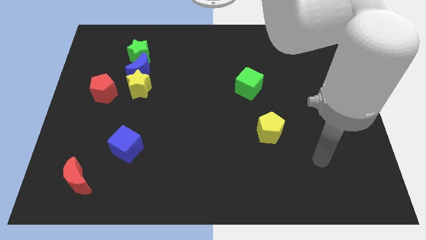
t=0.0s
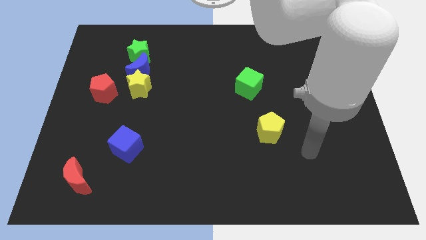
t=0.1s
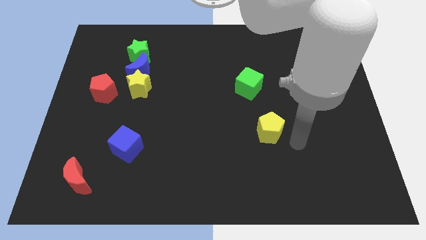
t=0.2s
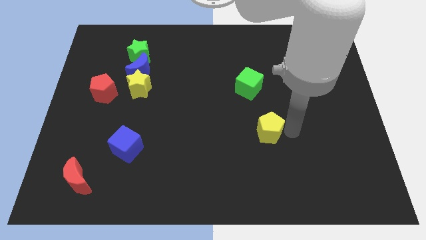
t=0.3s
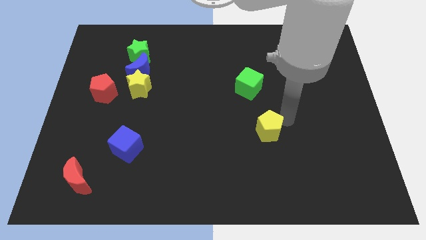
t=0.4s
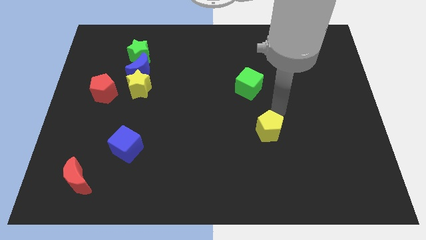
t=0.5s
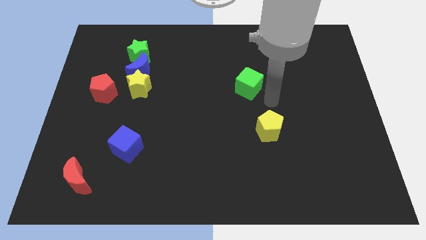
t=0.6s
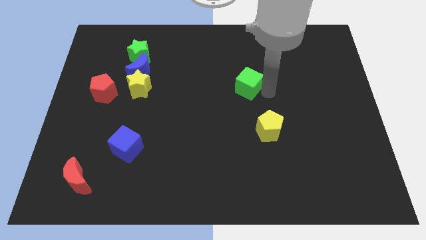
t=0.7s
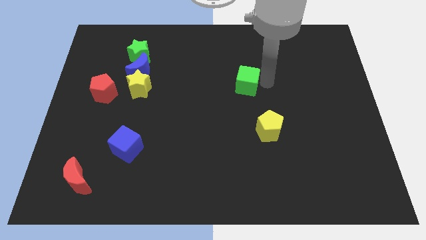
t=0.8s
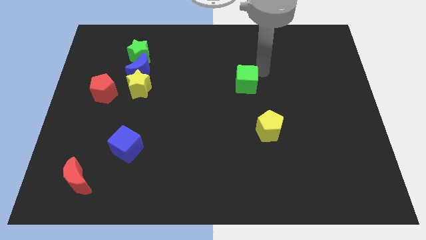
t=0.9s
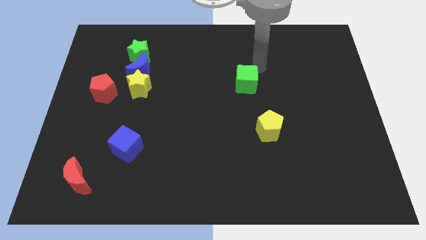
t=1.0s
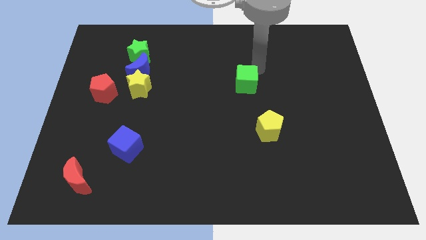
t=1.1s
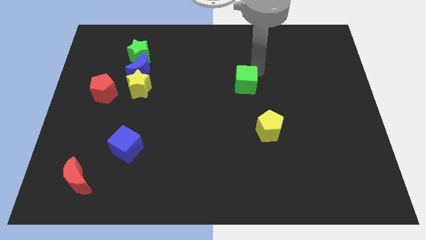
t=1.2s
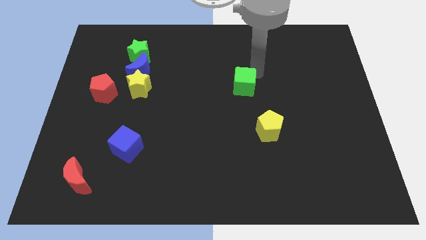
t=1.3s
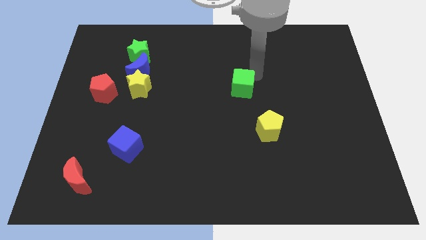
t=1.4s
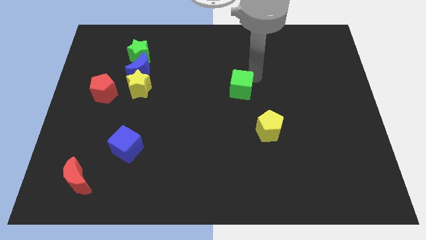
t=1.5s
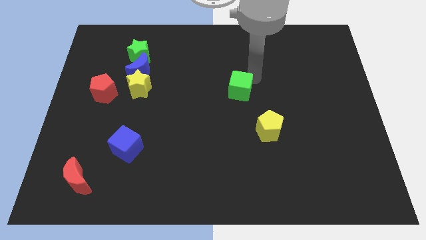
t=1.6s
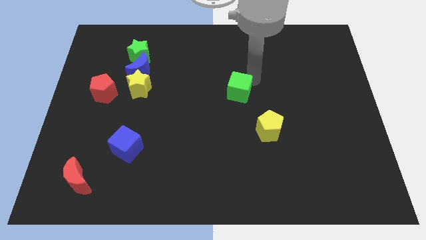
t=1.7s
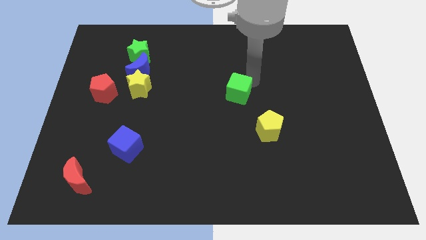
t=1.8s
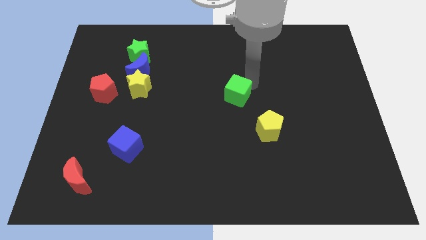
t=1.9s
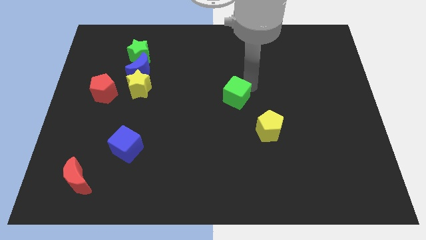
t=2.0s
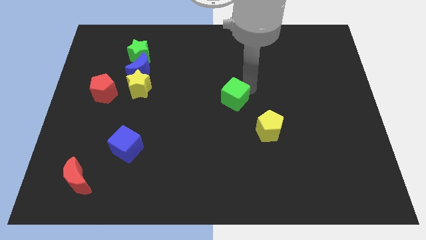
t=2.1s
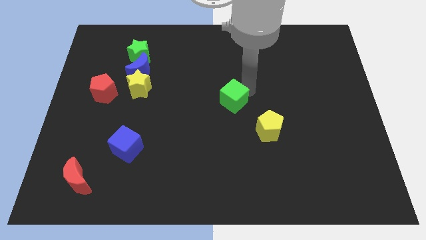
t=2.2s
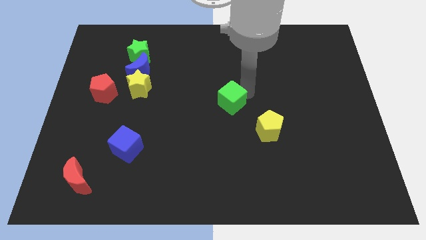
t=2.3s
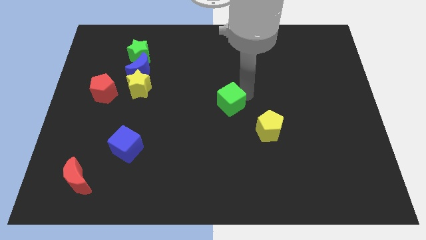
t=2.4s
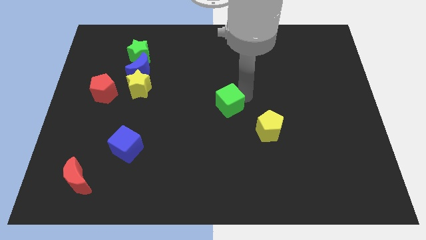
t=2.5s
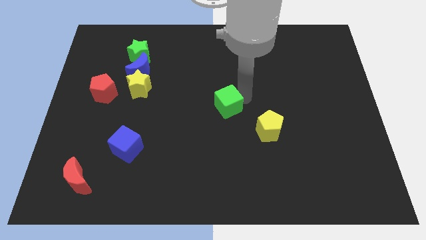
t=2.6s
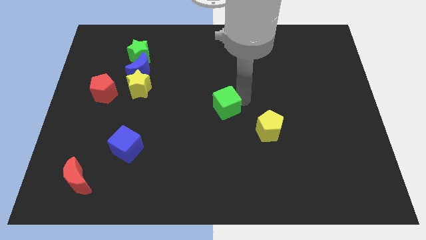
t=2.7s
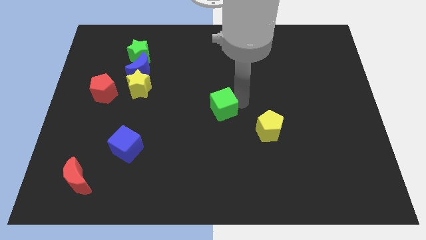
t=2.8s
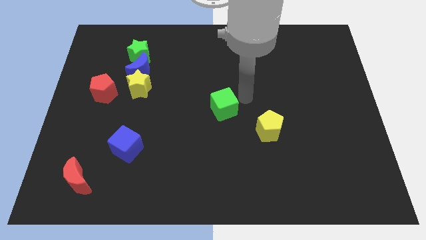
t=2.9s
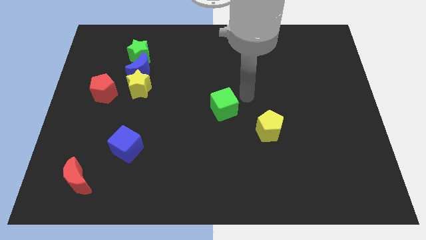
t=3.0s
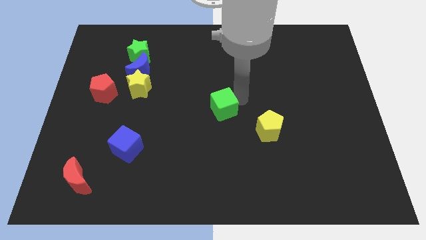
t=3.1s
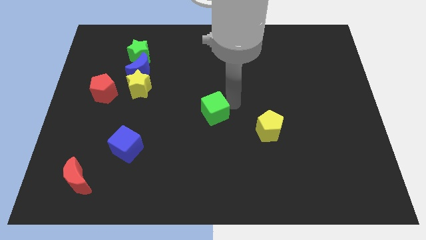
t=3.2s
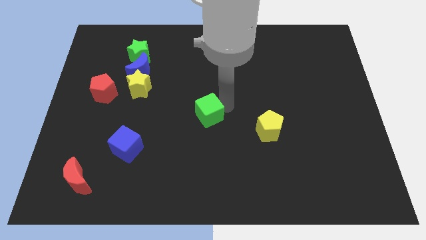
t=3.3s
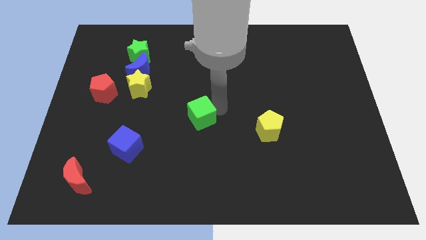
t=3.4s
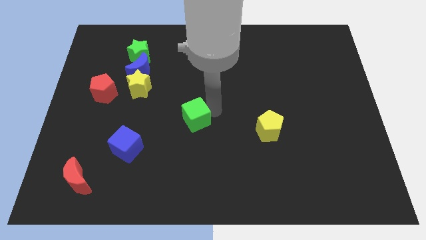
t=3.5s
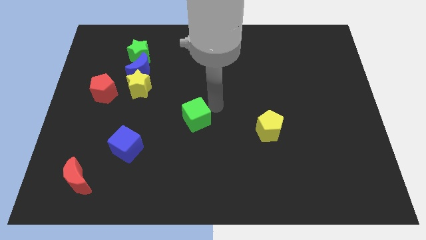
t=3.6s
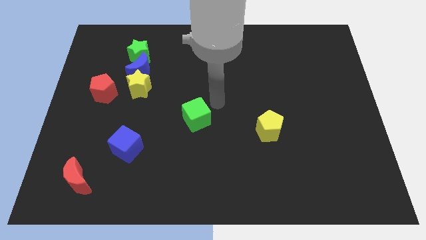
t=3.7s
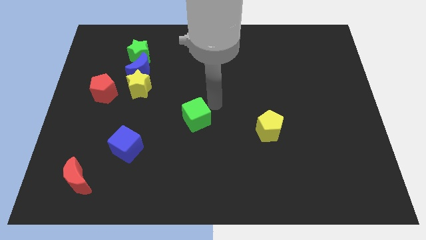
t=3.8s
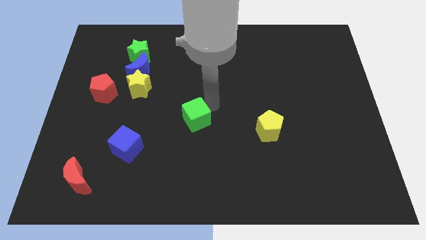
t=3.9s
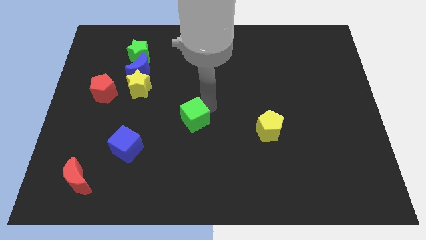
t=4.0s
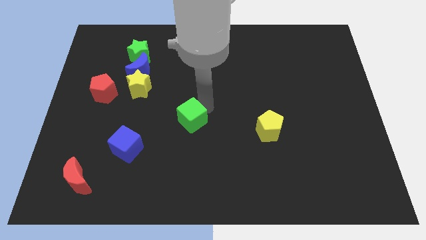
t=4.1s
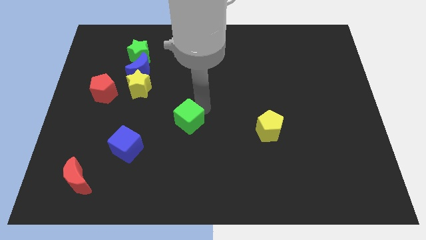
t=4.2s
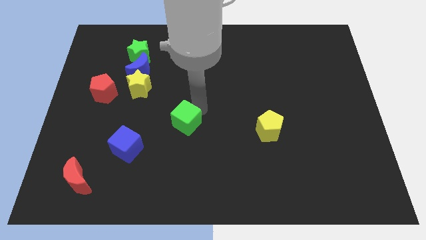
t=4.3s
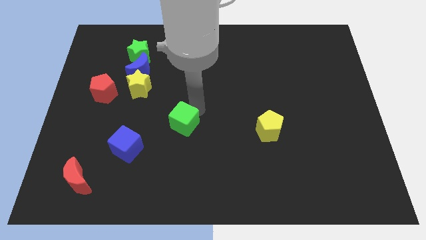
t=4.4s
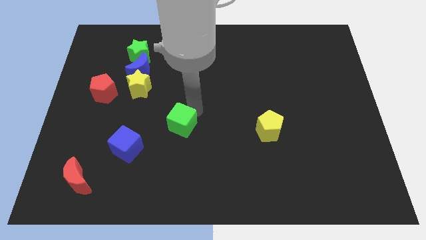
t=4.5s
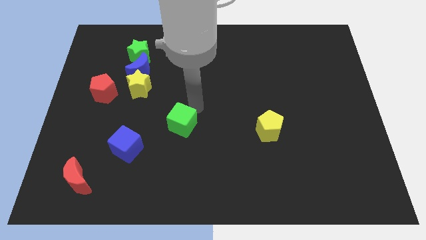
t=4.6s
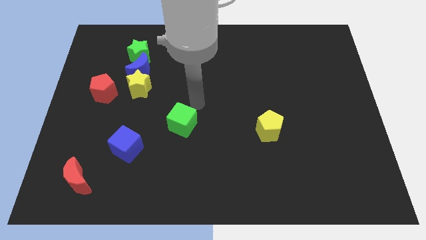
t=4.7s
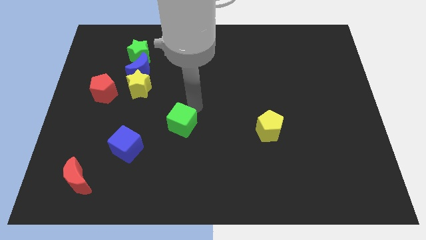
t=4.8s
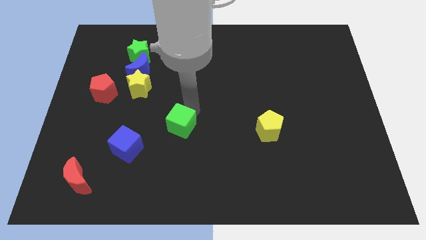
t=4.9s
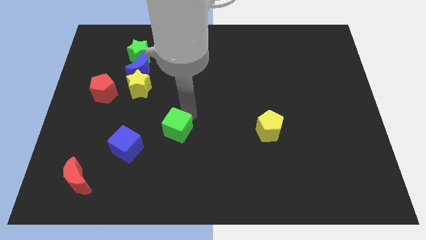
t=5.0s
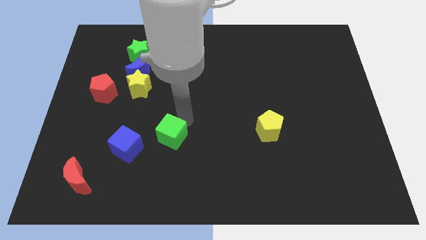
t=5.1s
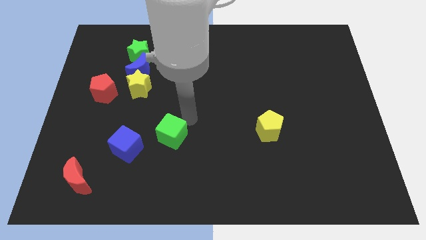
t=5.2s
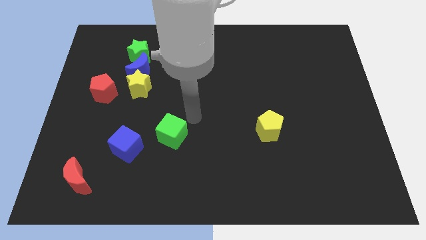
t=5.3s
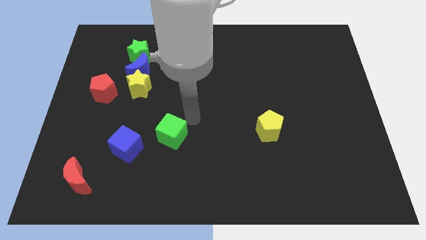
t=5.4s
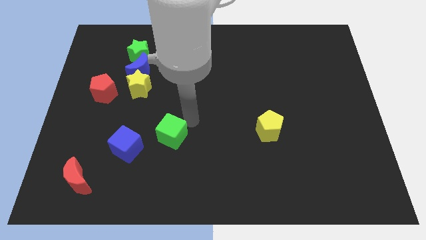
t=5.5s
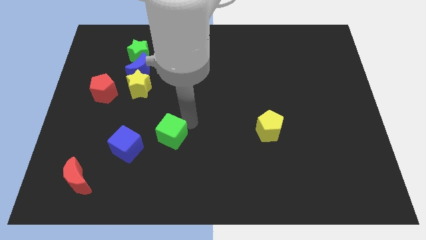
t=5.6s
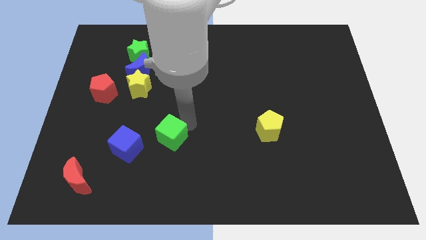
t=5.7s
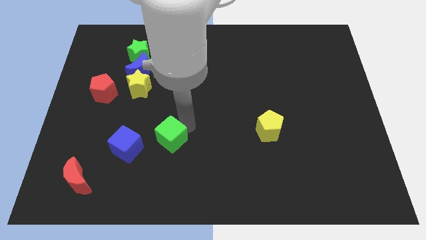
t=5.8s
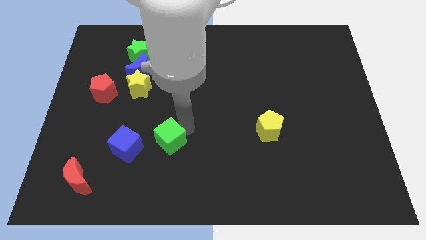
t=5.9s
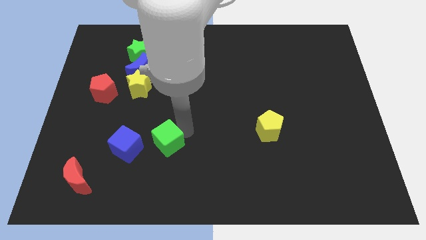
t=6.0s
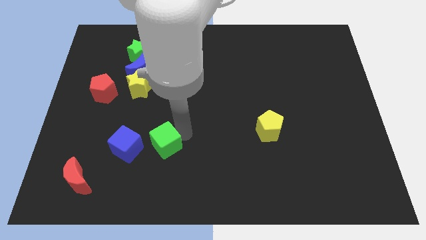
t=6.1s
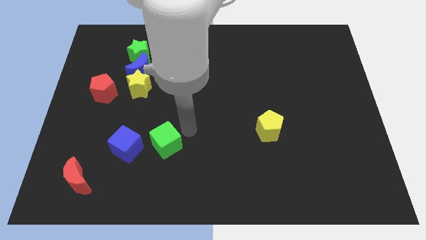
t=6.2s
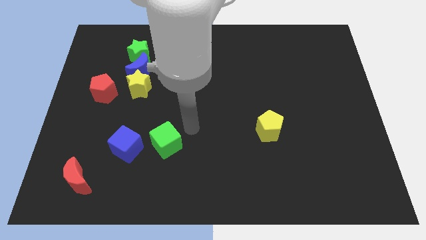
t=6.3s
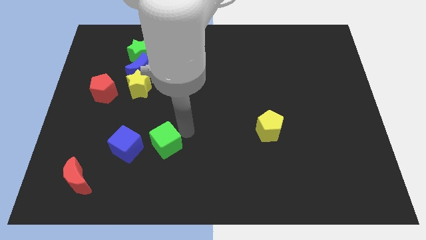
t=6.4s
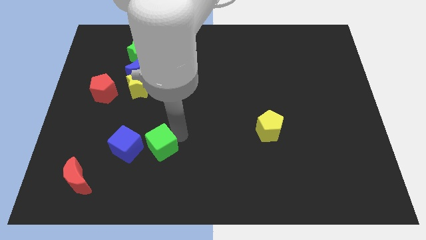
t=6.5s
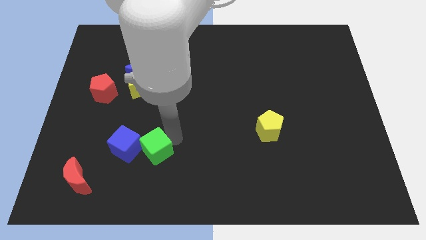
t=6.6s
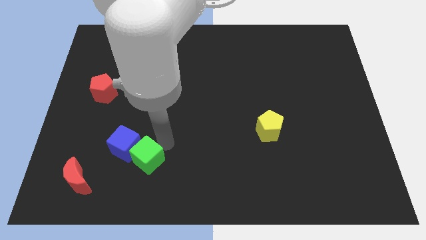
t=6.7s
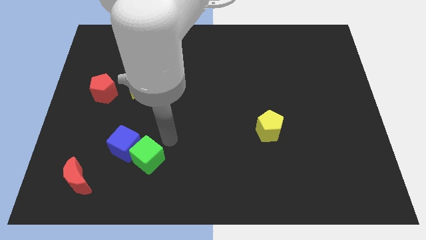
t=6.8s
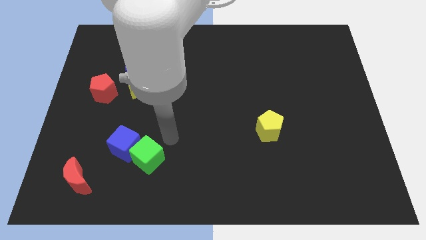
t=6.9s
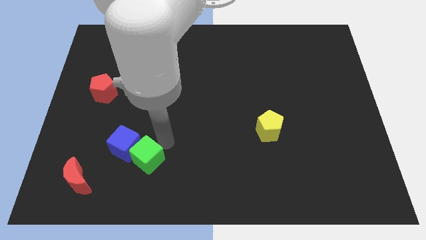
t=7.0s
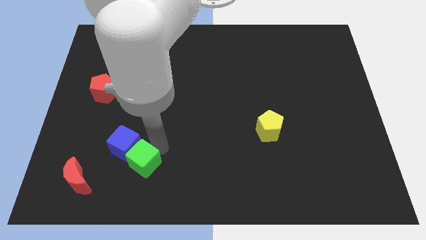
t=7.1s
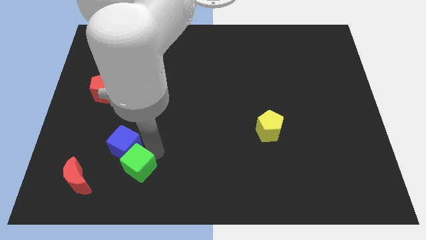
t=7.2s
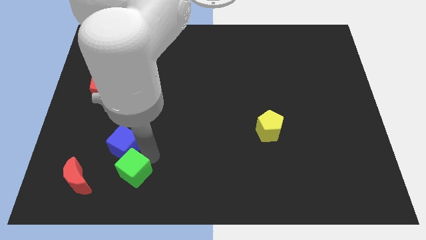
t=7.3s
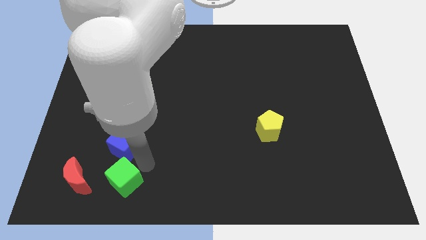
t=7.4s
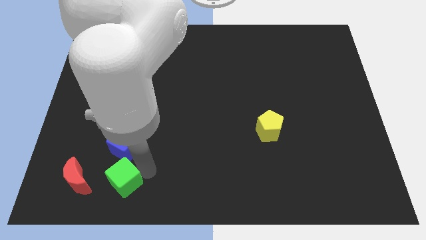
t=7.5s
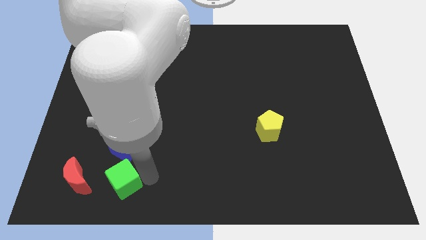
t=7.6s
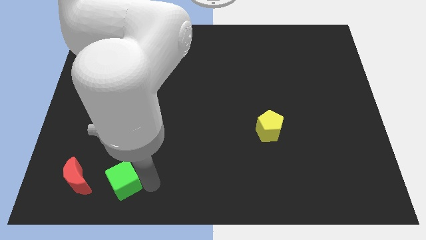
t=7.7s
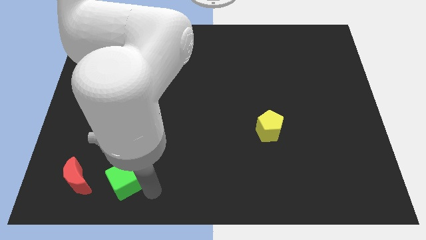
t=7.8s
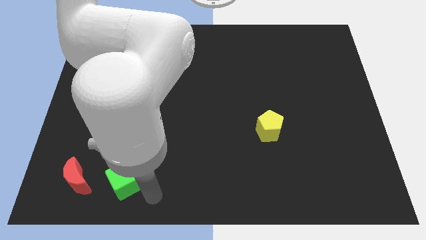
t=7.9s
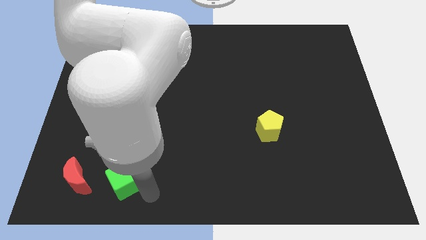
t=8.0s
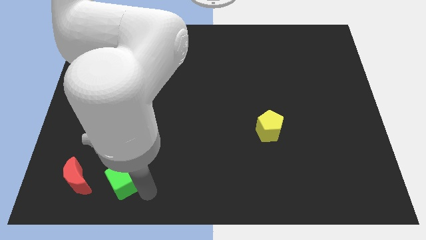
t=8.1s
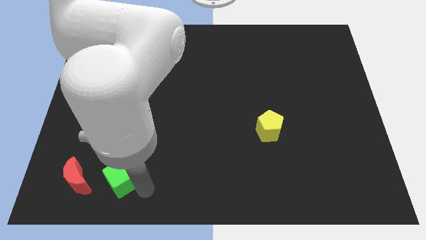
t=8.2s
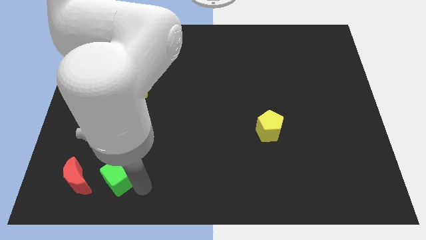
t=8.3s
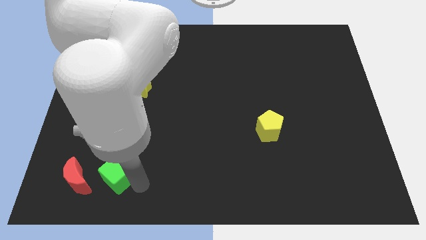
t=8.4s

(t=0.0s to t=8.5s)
slide the green cube diagonally down and to the left of the blue cube
